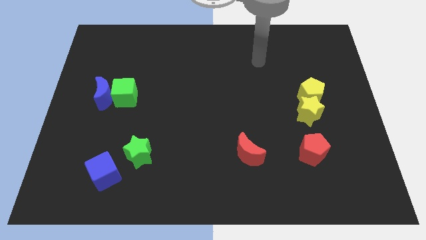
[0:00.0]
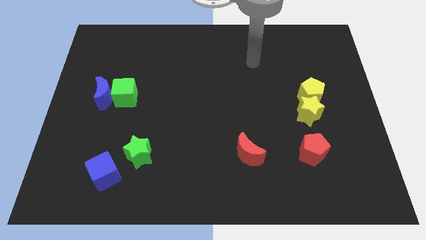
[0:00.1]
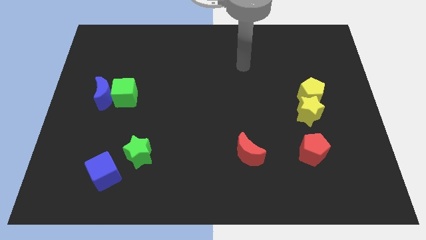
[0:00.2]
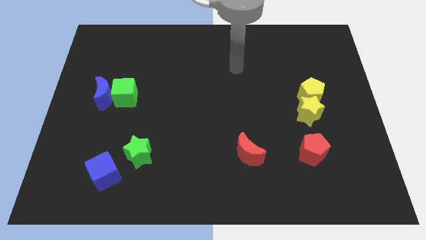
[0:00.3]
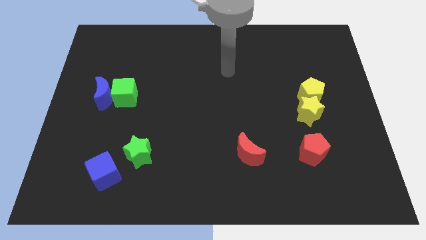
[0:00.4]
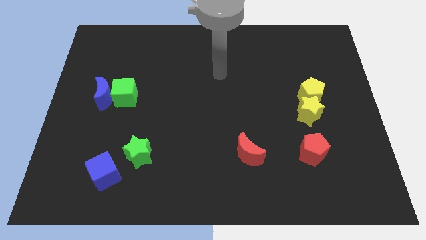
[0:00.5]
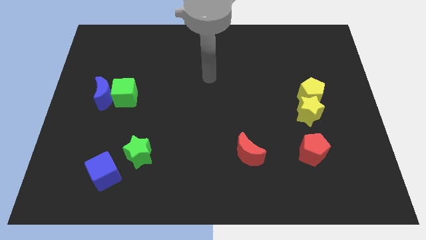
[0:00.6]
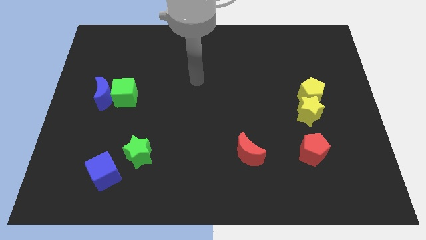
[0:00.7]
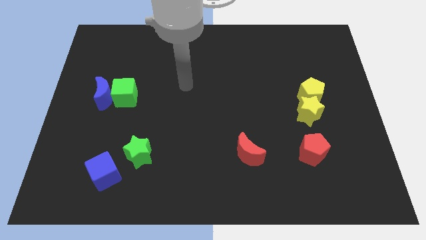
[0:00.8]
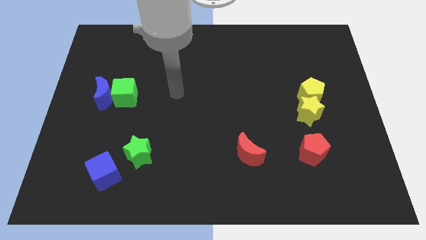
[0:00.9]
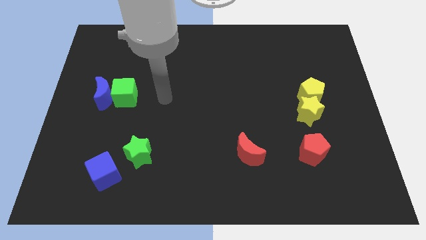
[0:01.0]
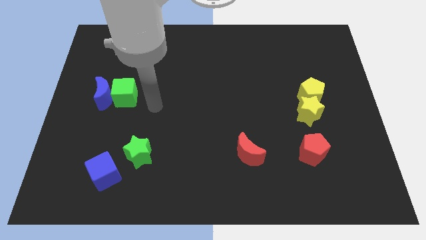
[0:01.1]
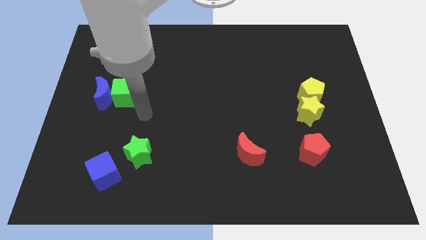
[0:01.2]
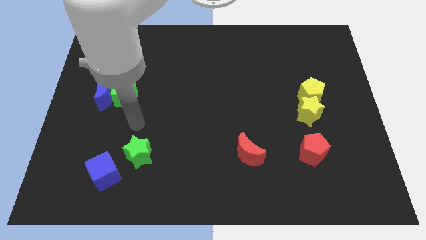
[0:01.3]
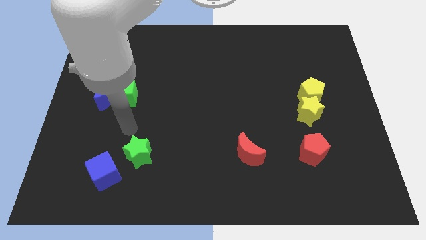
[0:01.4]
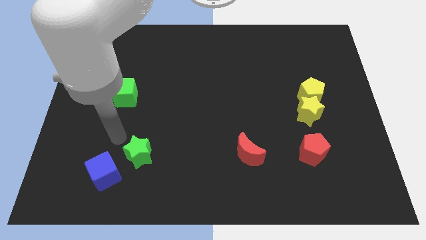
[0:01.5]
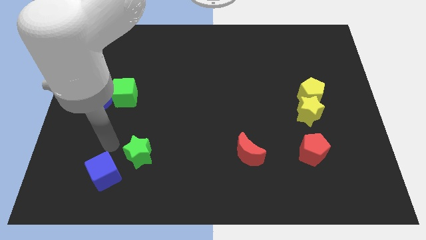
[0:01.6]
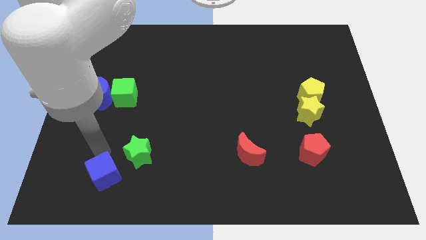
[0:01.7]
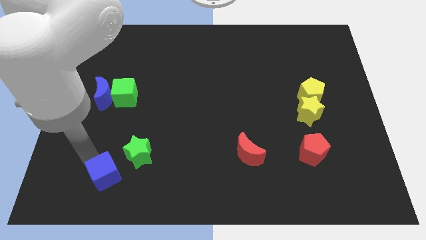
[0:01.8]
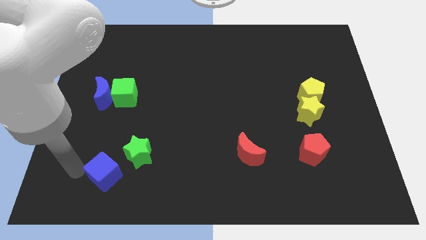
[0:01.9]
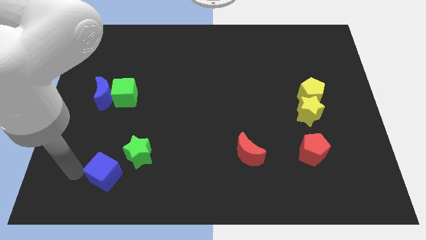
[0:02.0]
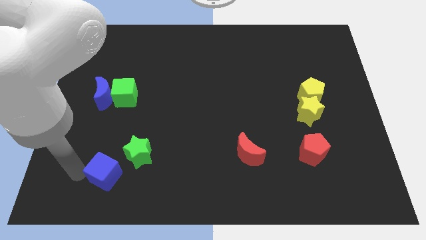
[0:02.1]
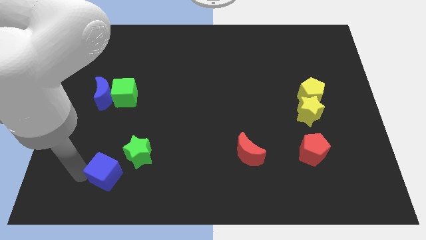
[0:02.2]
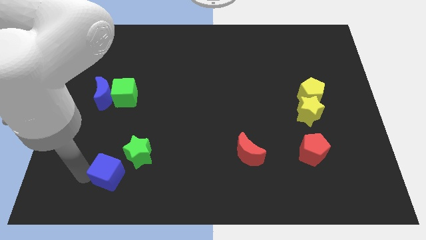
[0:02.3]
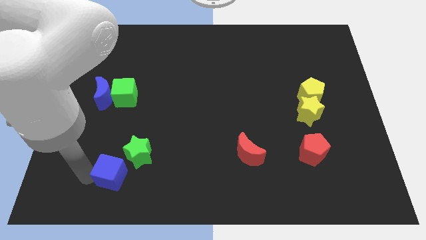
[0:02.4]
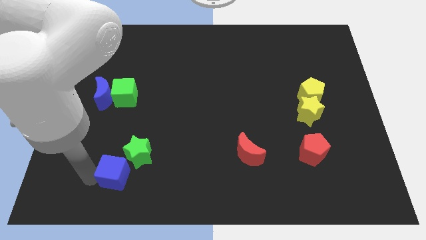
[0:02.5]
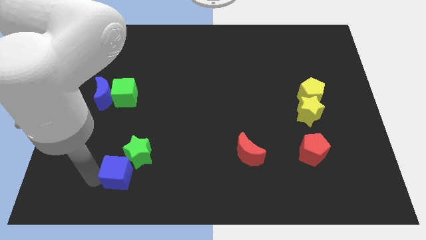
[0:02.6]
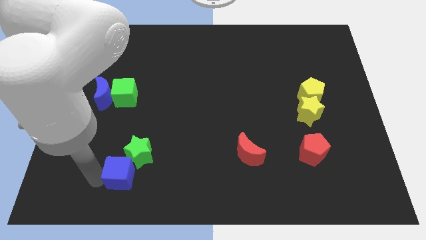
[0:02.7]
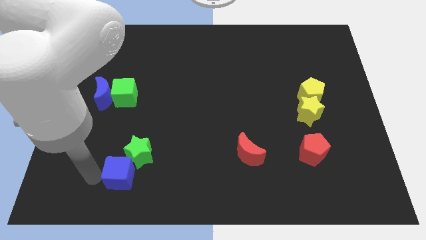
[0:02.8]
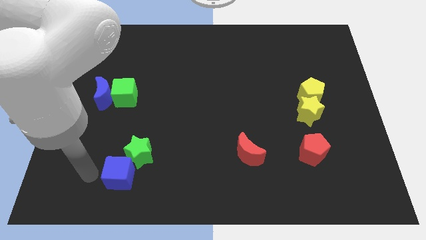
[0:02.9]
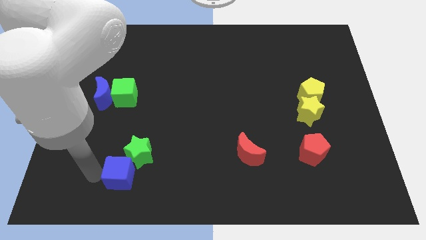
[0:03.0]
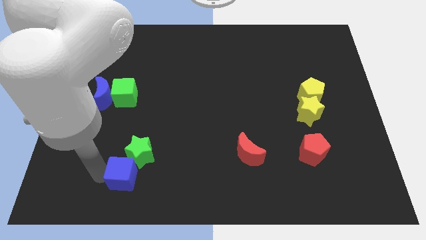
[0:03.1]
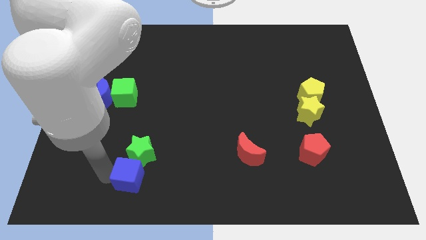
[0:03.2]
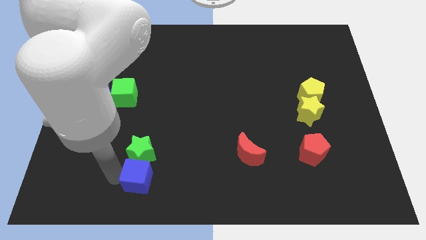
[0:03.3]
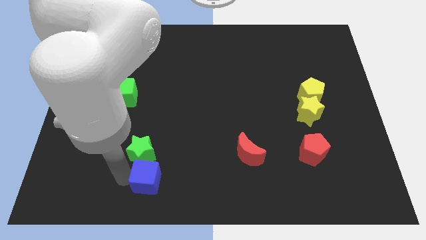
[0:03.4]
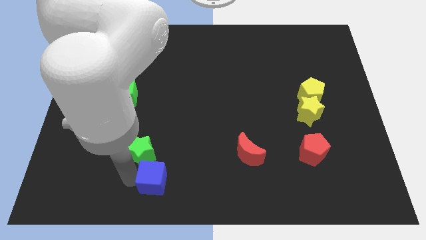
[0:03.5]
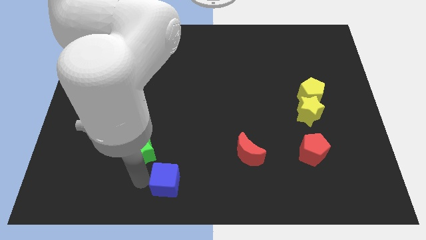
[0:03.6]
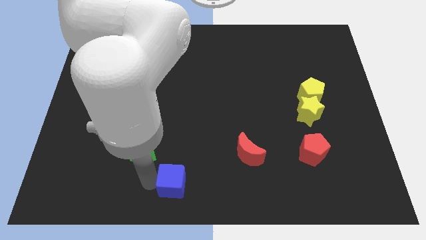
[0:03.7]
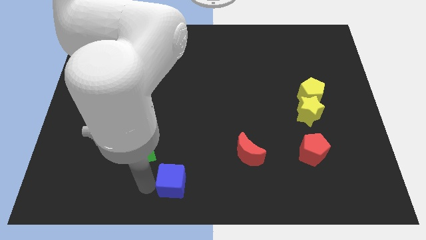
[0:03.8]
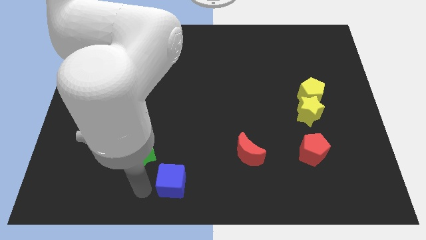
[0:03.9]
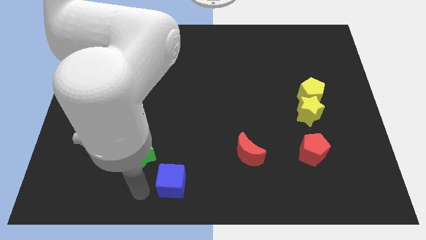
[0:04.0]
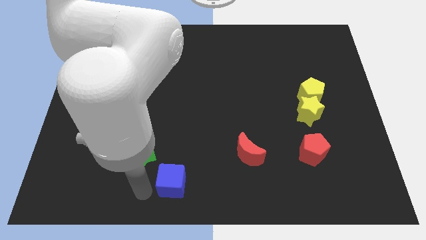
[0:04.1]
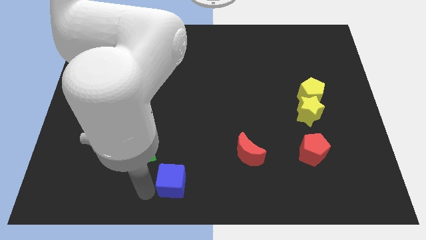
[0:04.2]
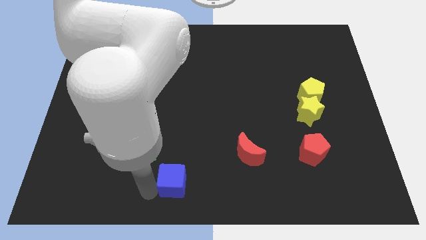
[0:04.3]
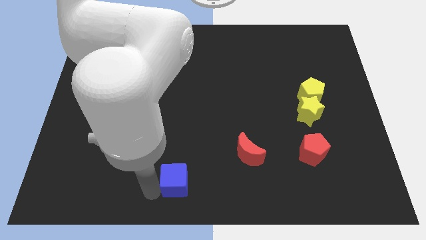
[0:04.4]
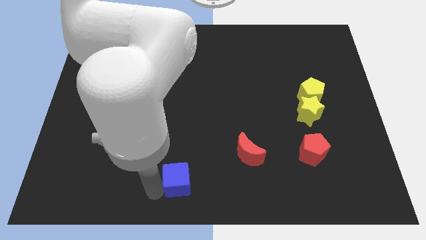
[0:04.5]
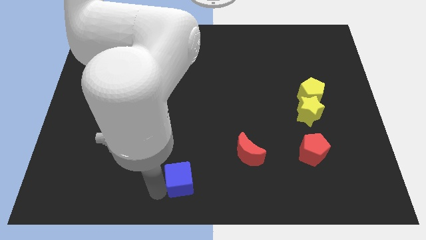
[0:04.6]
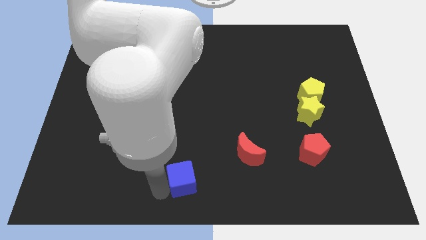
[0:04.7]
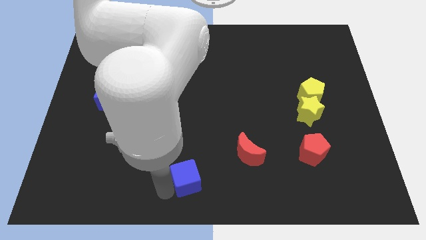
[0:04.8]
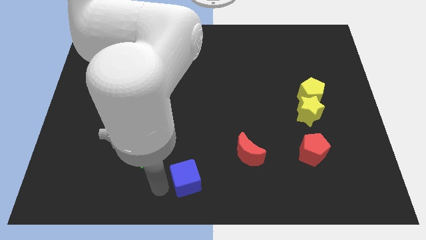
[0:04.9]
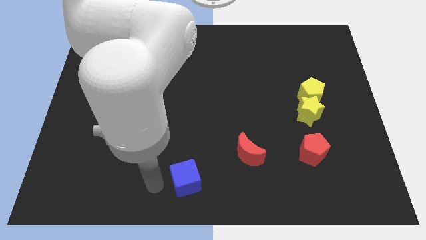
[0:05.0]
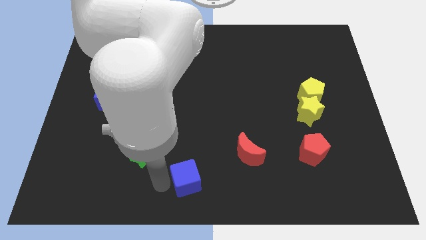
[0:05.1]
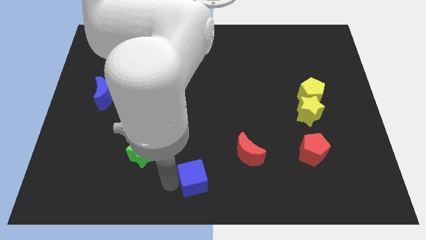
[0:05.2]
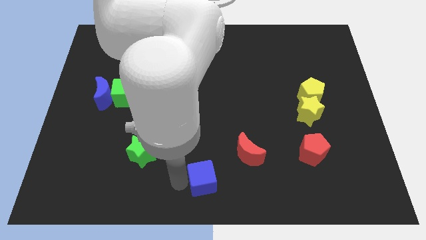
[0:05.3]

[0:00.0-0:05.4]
push the blue cube to the bottom left side of the red moon

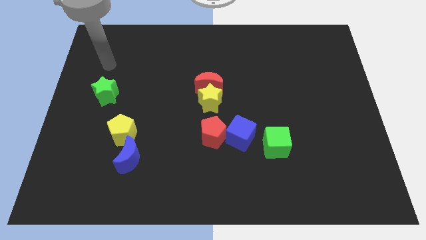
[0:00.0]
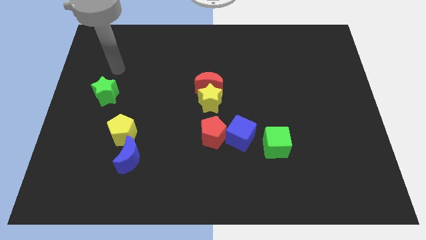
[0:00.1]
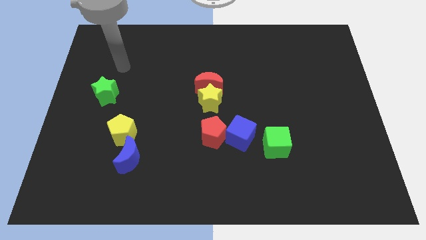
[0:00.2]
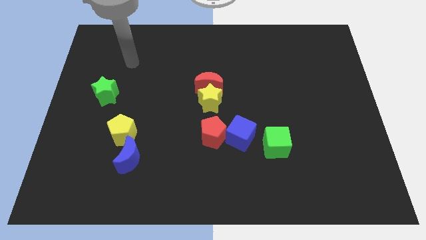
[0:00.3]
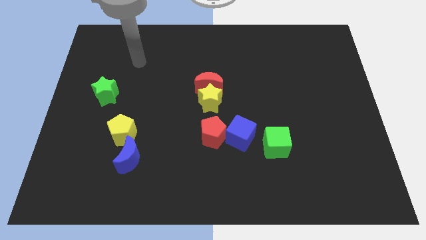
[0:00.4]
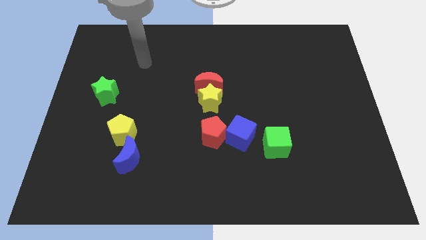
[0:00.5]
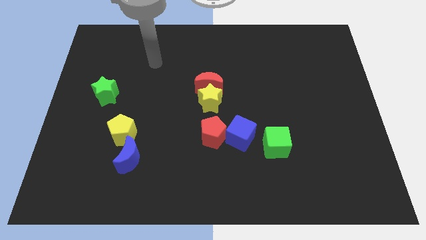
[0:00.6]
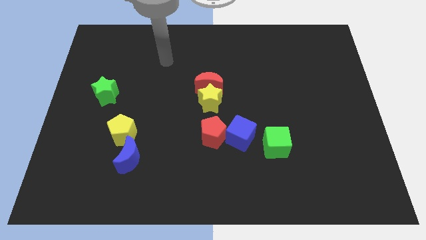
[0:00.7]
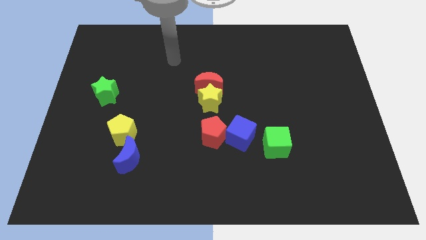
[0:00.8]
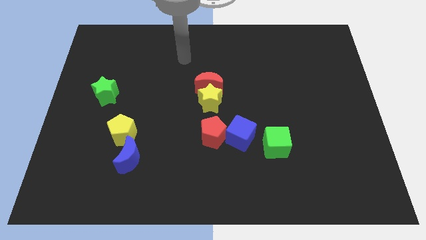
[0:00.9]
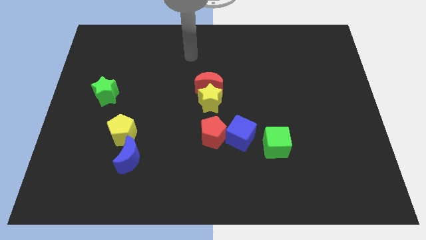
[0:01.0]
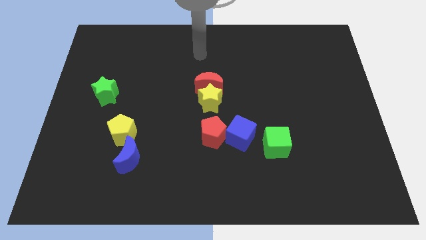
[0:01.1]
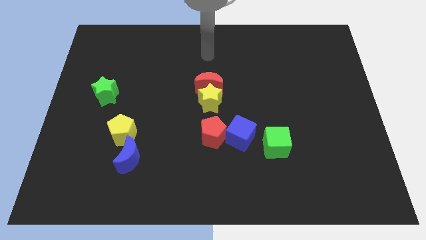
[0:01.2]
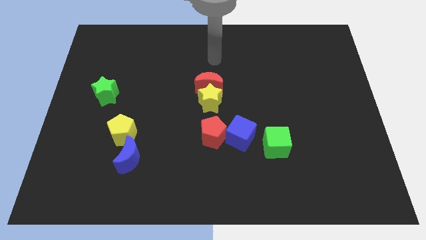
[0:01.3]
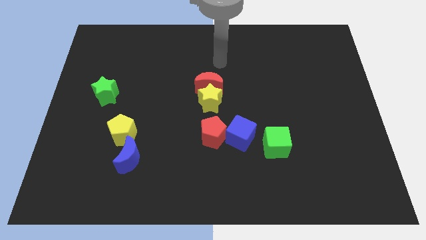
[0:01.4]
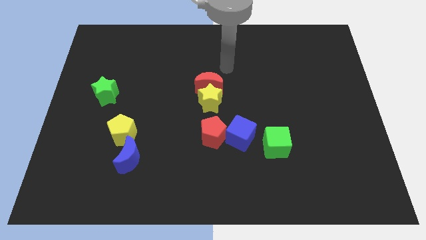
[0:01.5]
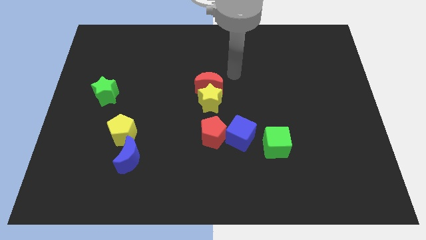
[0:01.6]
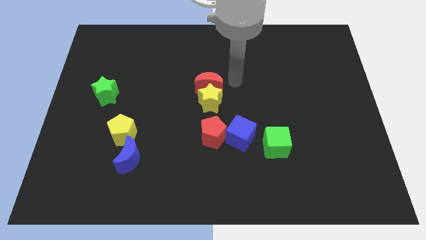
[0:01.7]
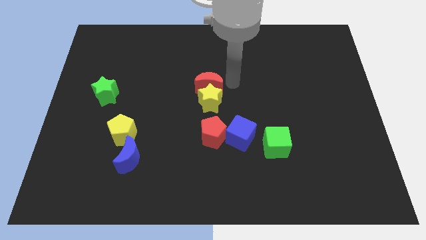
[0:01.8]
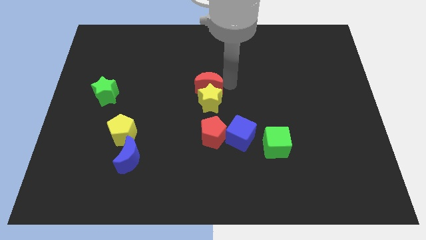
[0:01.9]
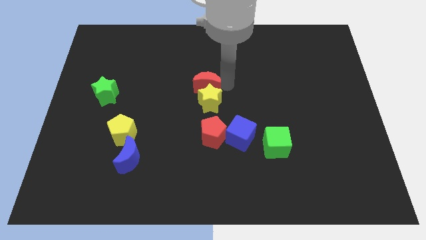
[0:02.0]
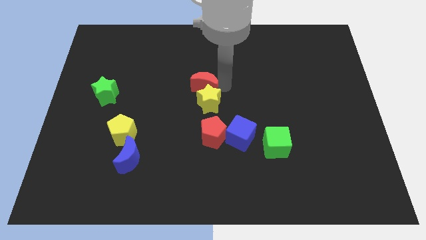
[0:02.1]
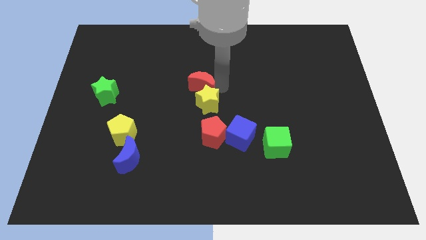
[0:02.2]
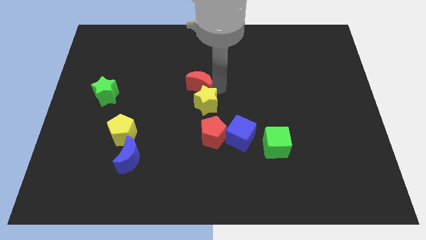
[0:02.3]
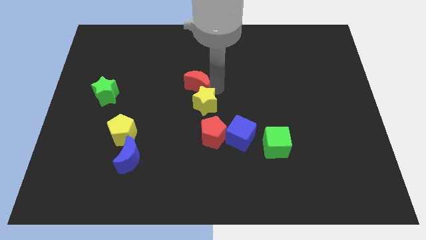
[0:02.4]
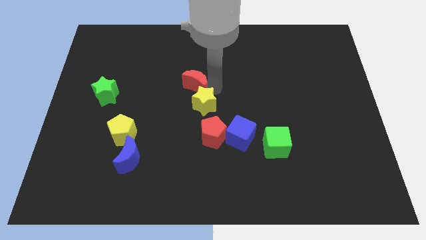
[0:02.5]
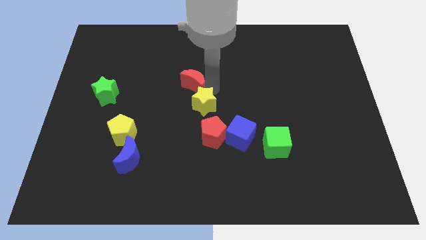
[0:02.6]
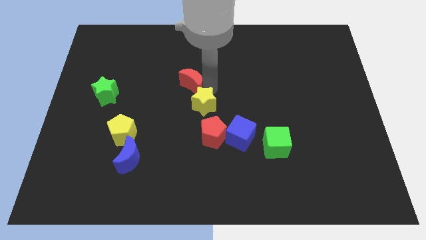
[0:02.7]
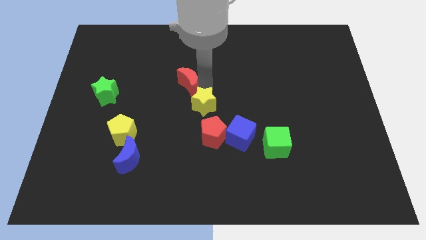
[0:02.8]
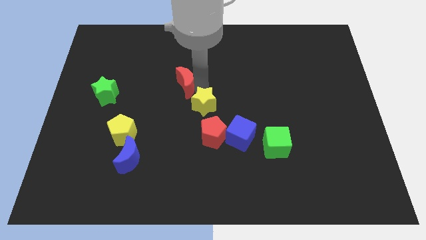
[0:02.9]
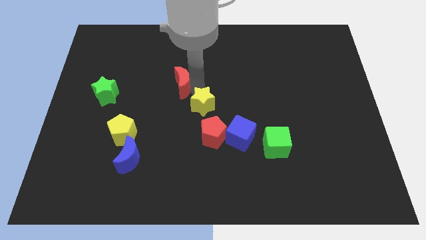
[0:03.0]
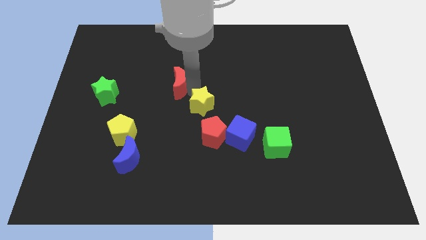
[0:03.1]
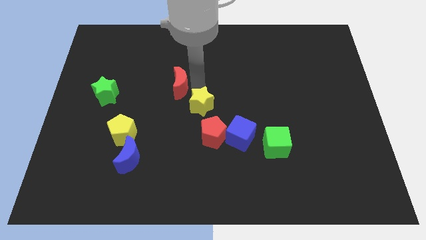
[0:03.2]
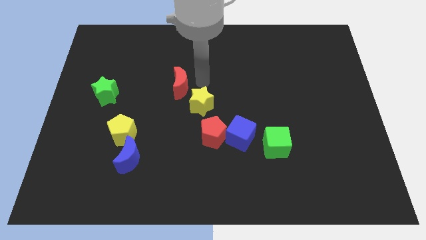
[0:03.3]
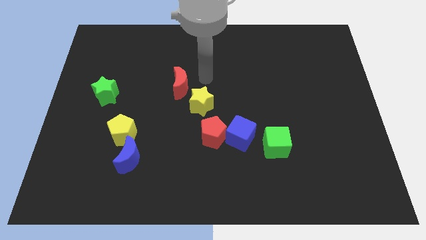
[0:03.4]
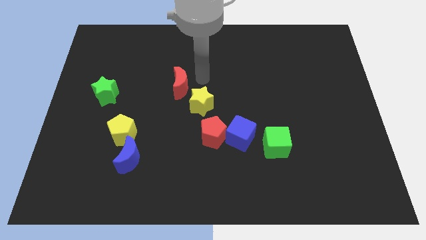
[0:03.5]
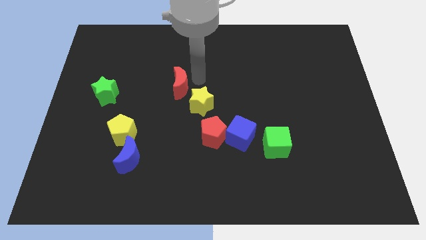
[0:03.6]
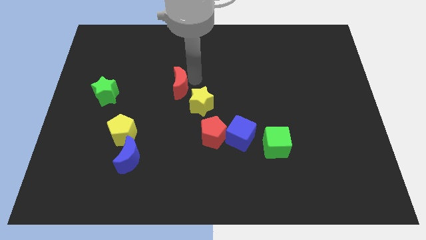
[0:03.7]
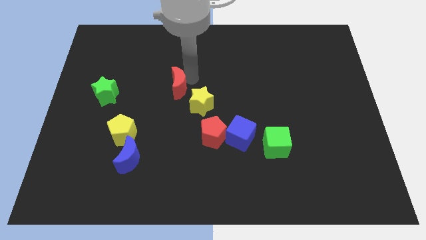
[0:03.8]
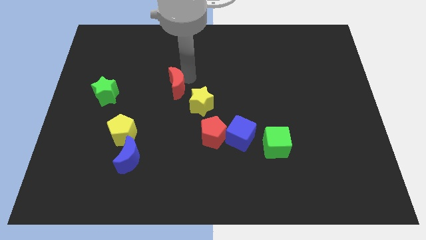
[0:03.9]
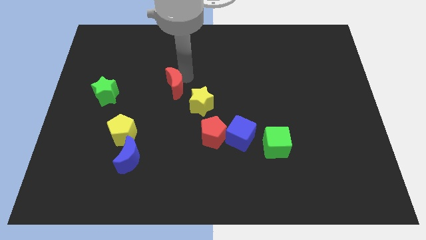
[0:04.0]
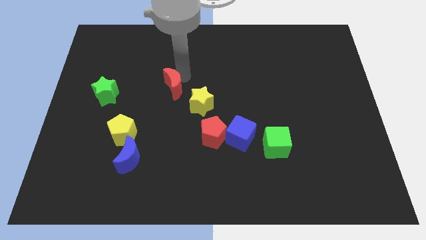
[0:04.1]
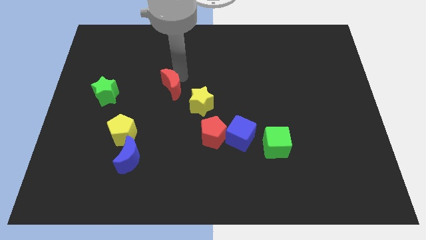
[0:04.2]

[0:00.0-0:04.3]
push the red moon to the right of the green star
